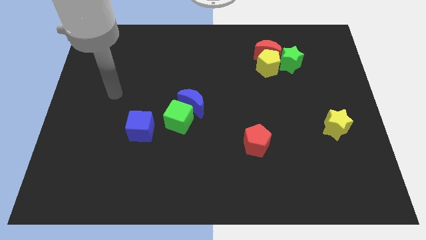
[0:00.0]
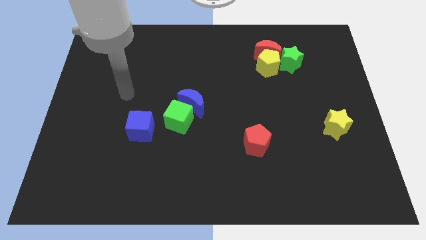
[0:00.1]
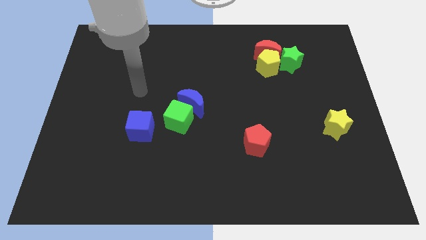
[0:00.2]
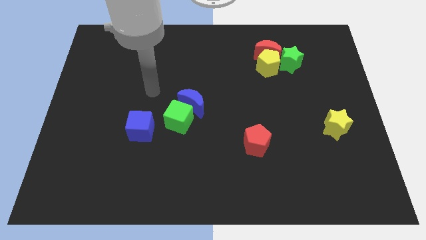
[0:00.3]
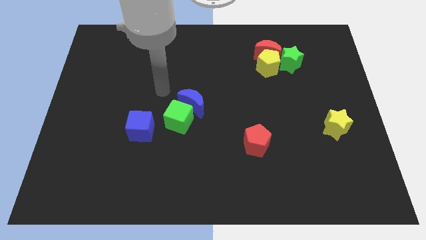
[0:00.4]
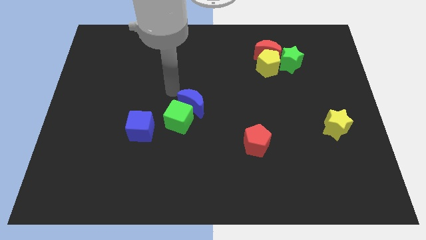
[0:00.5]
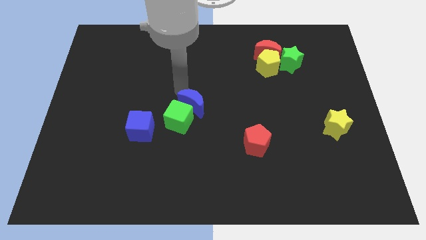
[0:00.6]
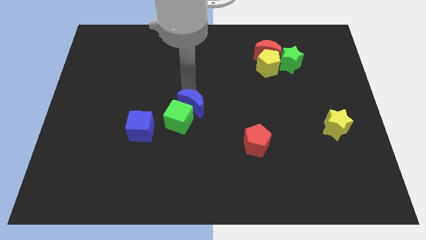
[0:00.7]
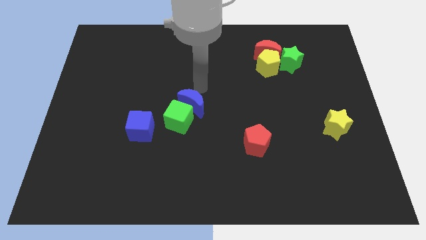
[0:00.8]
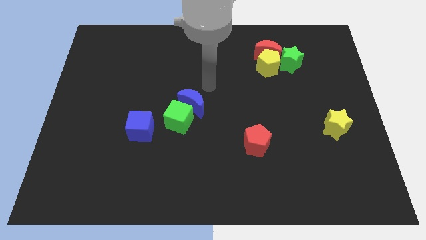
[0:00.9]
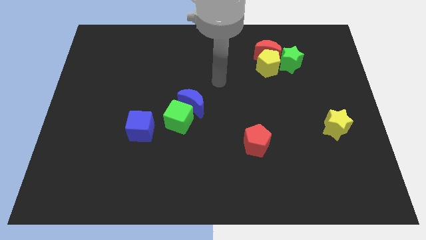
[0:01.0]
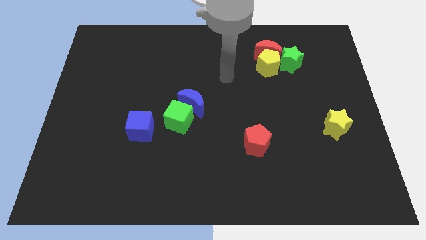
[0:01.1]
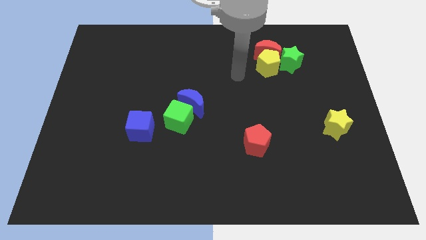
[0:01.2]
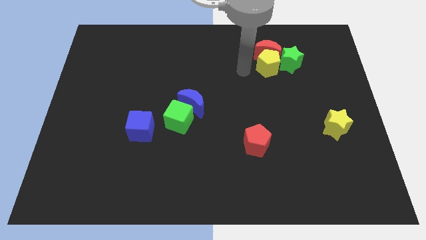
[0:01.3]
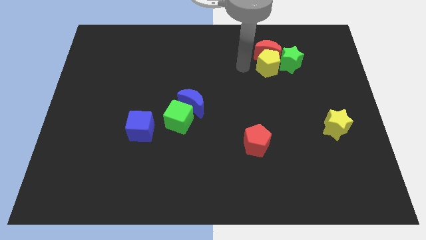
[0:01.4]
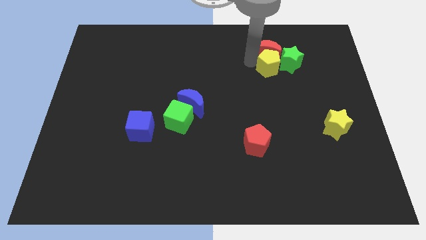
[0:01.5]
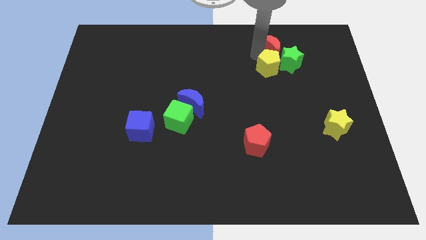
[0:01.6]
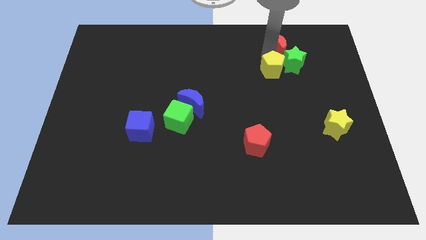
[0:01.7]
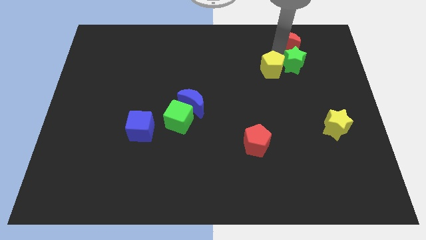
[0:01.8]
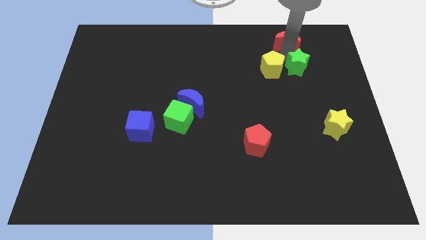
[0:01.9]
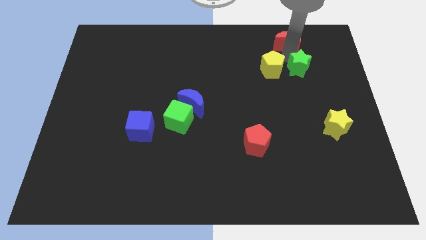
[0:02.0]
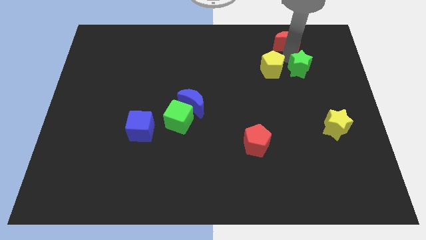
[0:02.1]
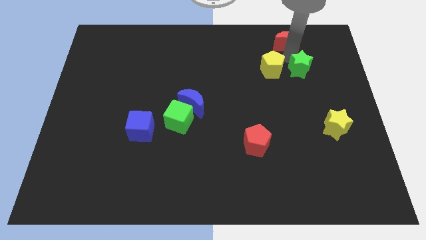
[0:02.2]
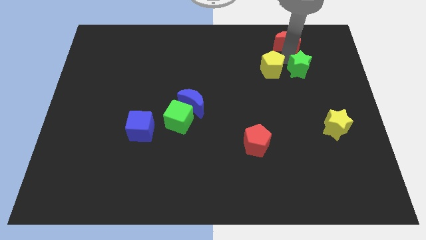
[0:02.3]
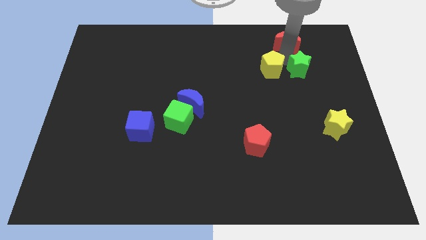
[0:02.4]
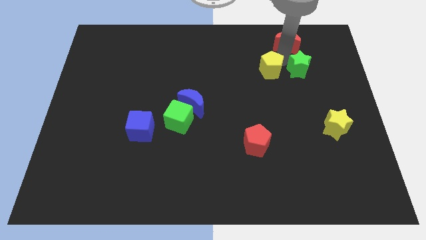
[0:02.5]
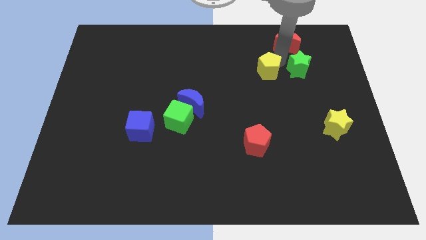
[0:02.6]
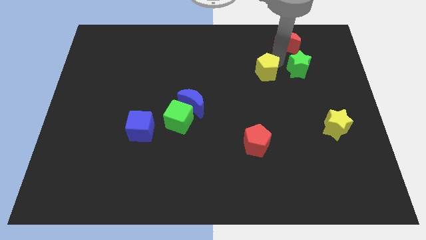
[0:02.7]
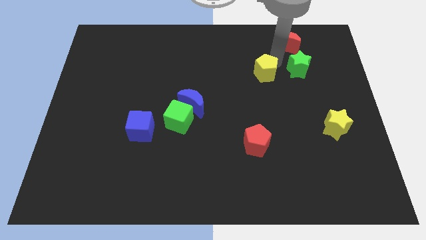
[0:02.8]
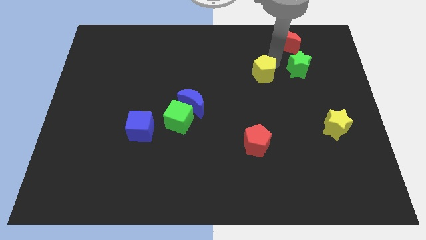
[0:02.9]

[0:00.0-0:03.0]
pull the yellow pentagon apart from the red moon and green star

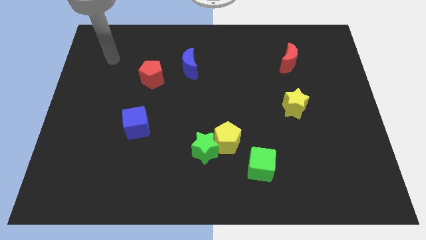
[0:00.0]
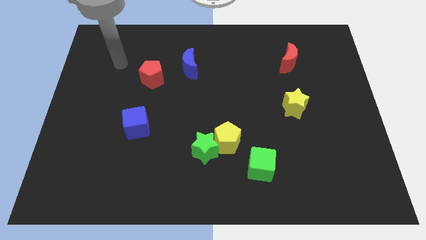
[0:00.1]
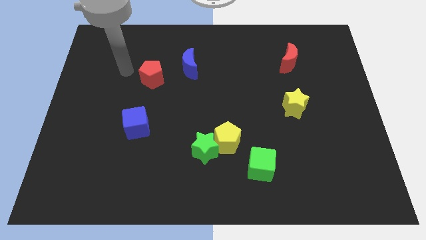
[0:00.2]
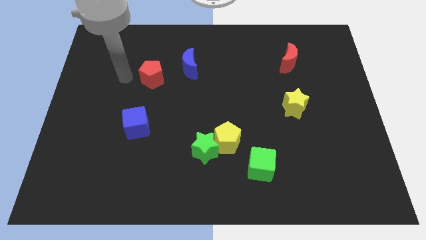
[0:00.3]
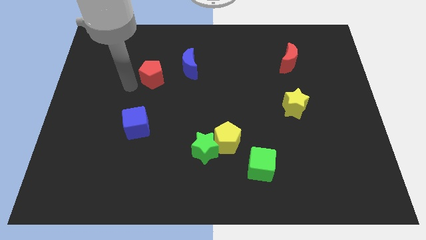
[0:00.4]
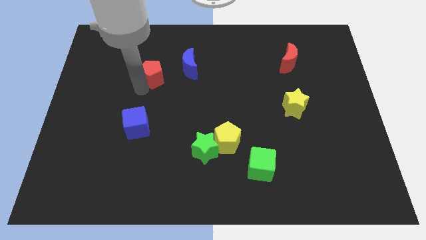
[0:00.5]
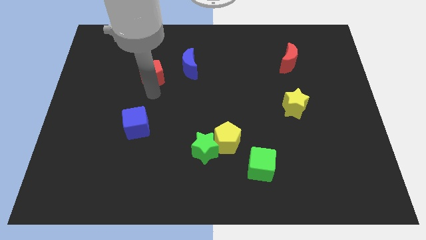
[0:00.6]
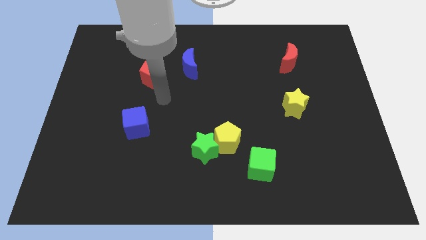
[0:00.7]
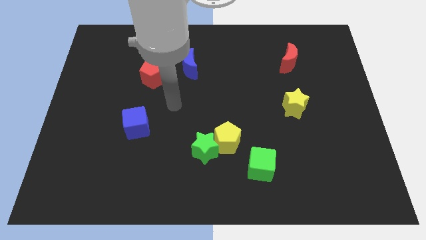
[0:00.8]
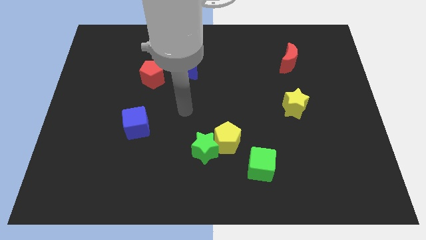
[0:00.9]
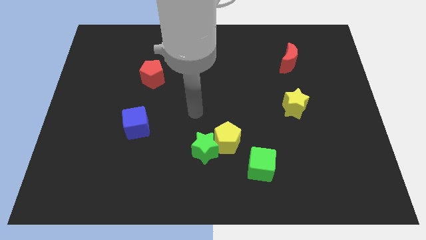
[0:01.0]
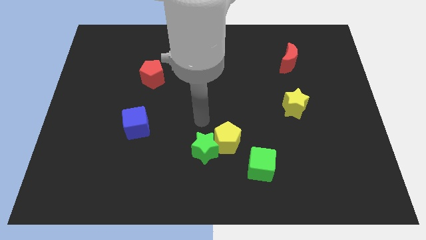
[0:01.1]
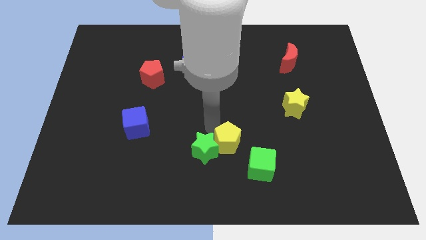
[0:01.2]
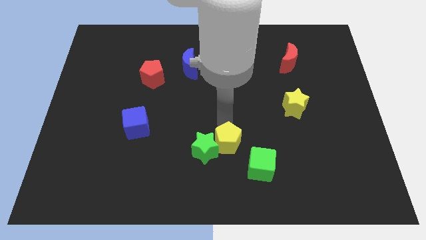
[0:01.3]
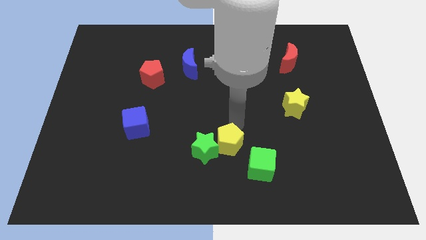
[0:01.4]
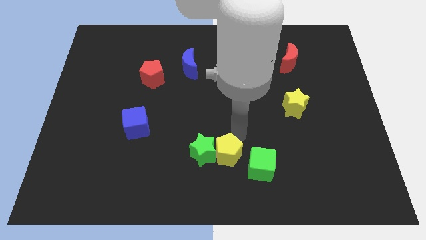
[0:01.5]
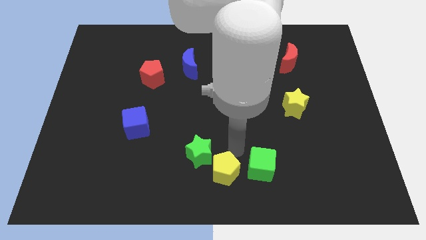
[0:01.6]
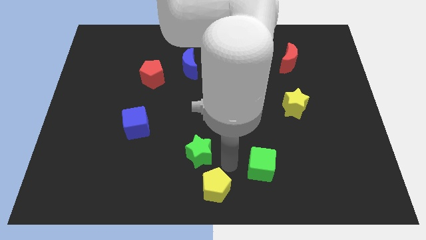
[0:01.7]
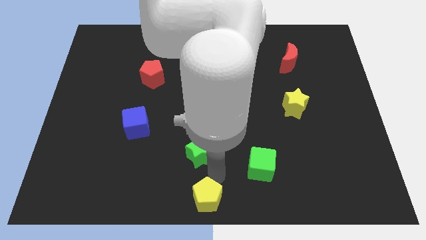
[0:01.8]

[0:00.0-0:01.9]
separate the green star from the yellow pentagon

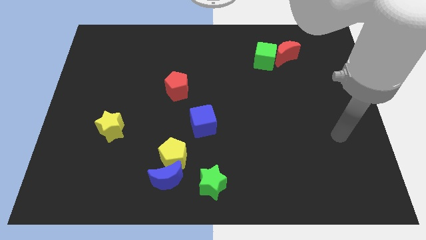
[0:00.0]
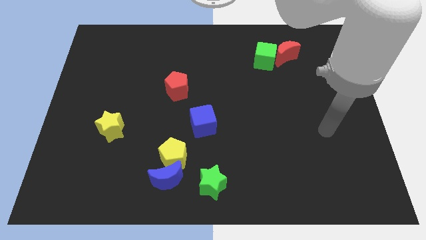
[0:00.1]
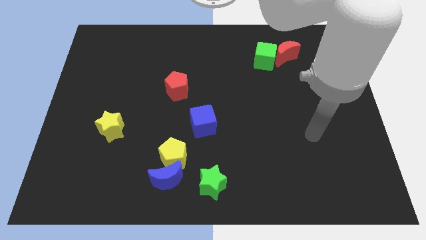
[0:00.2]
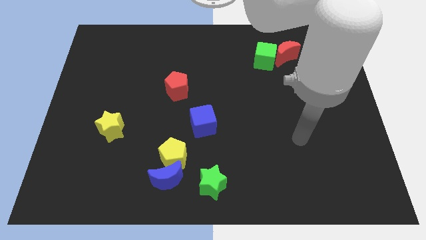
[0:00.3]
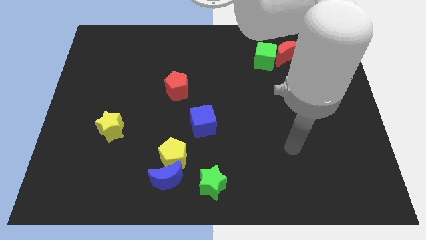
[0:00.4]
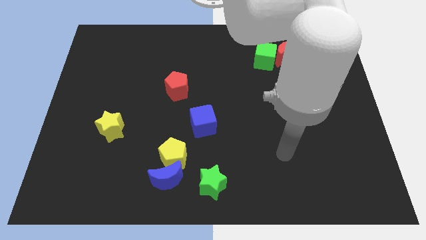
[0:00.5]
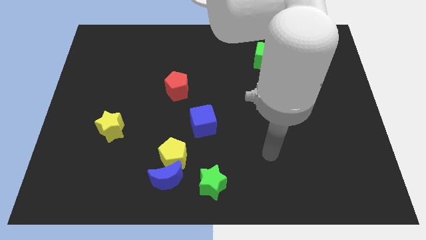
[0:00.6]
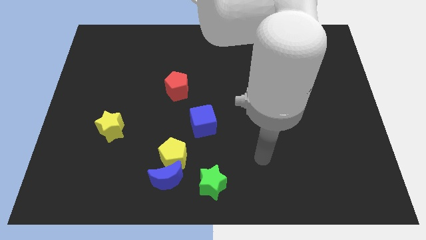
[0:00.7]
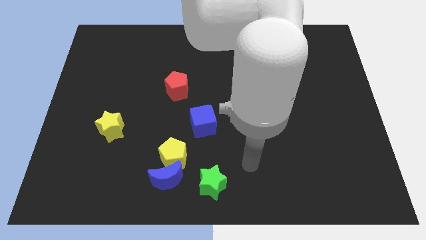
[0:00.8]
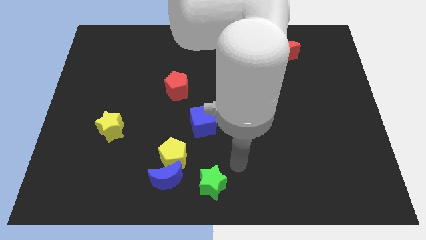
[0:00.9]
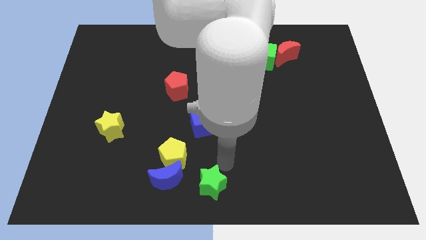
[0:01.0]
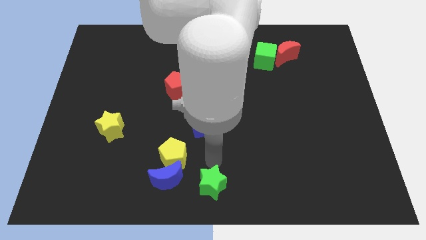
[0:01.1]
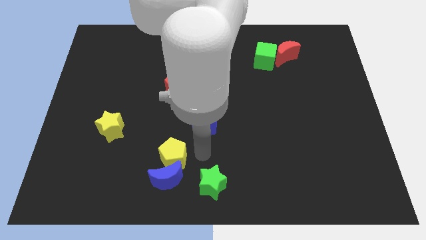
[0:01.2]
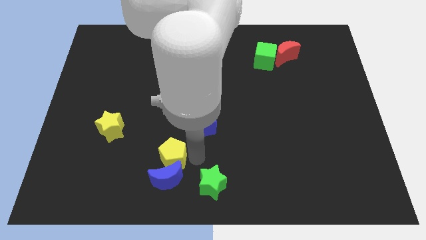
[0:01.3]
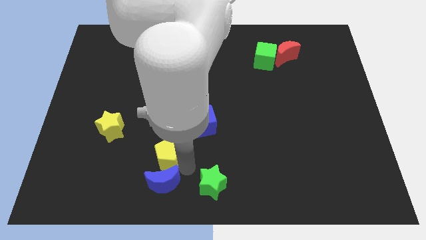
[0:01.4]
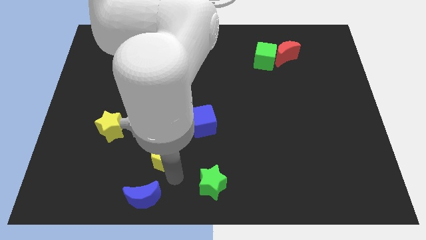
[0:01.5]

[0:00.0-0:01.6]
move the yellow pentagon away from the blue moon

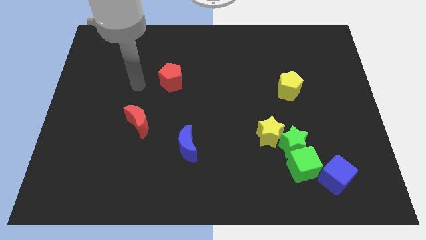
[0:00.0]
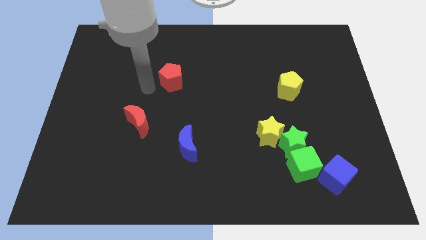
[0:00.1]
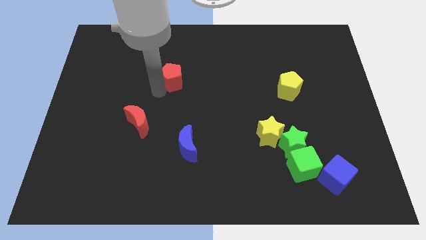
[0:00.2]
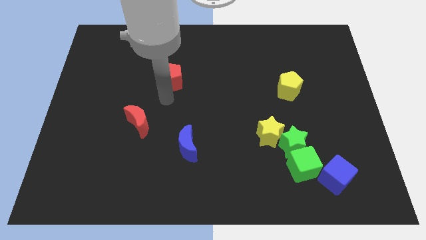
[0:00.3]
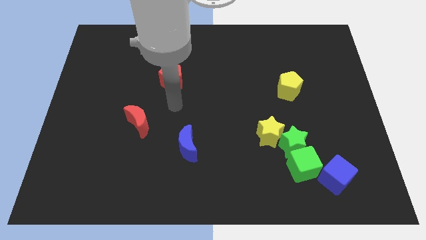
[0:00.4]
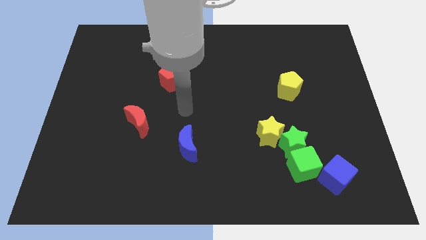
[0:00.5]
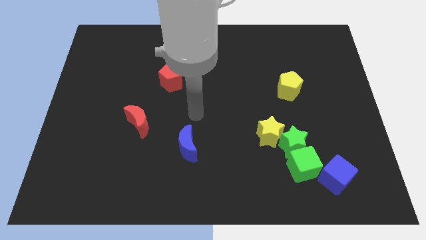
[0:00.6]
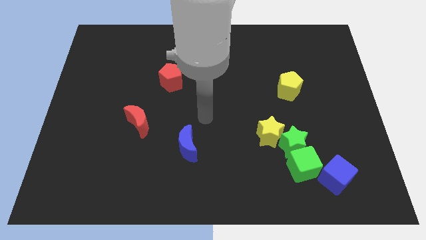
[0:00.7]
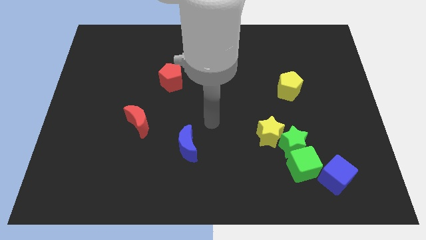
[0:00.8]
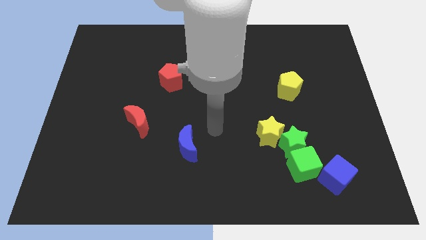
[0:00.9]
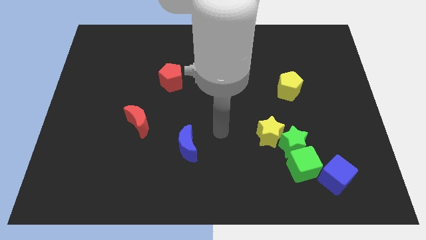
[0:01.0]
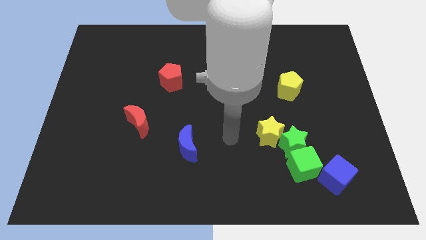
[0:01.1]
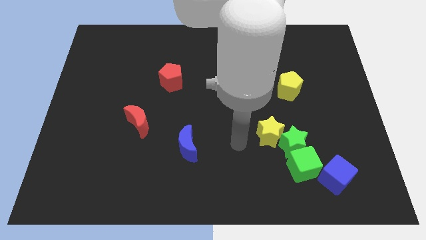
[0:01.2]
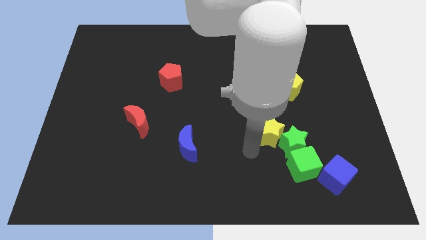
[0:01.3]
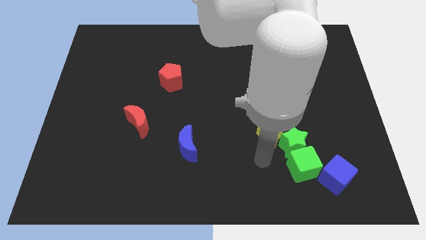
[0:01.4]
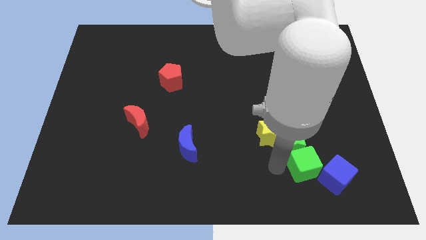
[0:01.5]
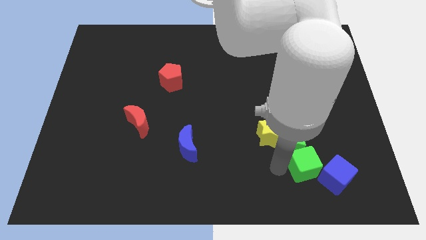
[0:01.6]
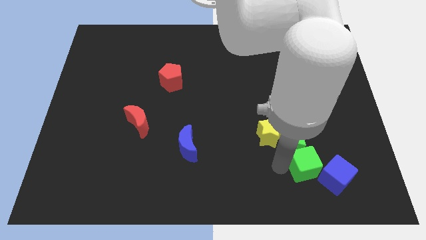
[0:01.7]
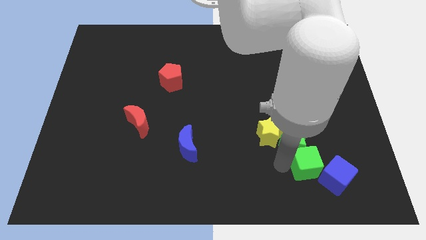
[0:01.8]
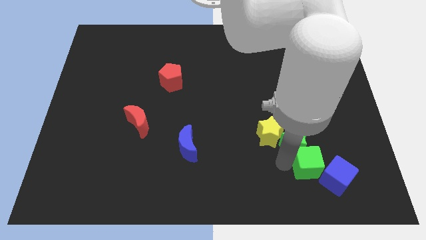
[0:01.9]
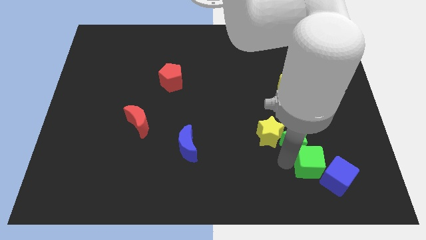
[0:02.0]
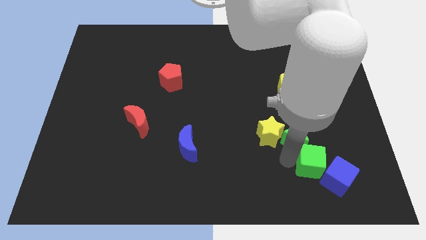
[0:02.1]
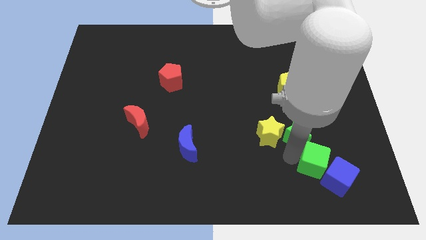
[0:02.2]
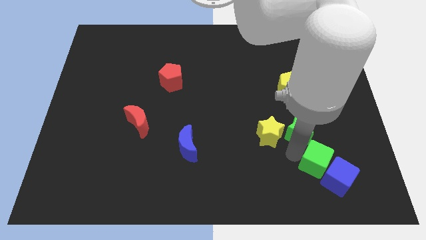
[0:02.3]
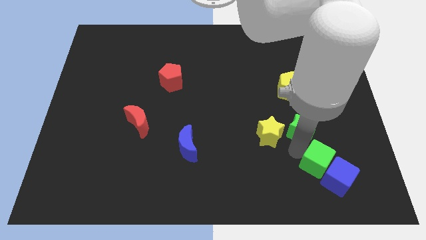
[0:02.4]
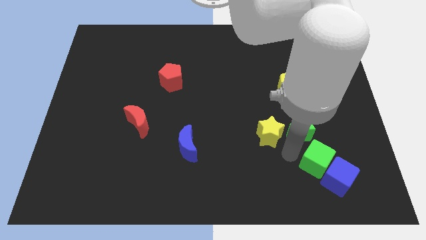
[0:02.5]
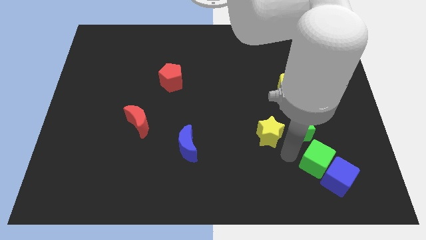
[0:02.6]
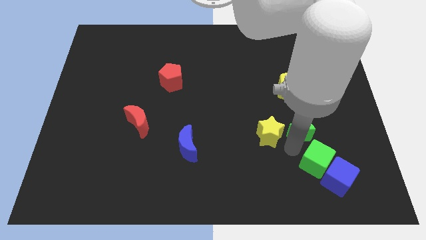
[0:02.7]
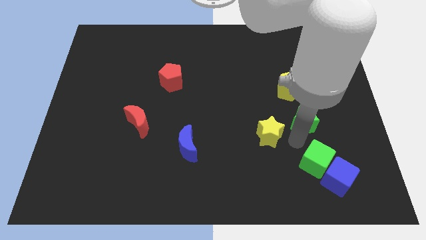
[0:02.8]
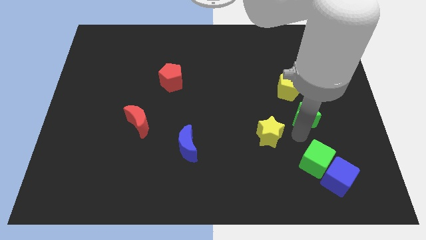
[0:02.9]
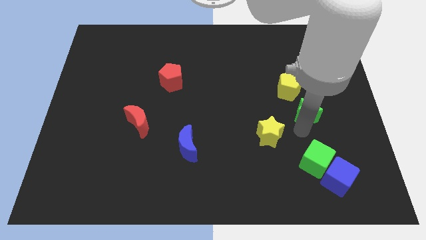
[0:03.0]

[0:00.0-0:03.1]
separate the green star from the green cube and yellow star
